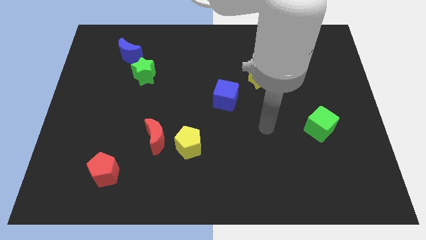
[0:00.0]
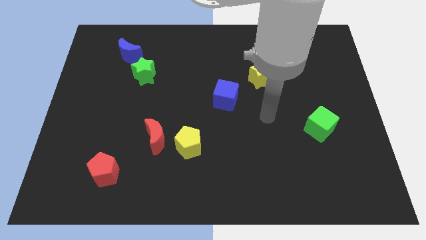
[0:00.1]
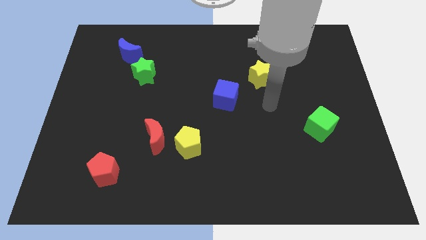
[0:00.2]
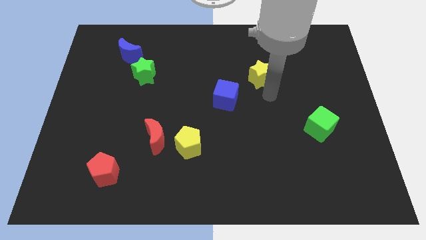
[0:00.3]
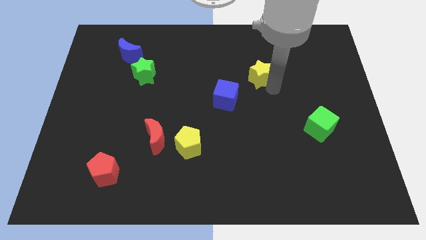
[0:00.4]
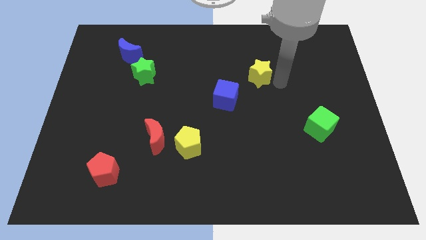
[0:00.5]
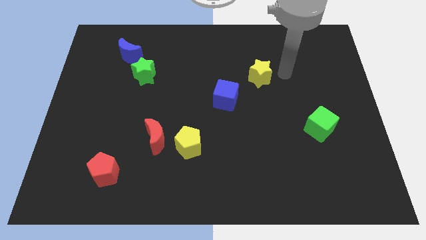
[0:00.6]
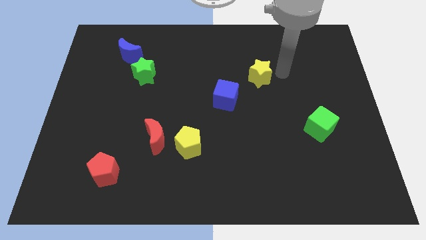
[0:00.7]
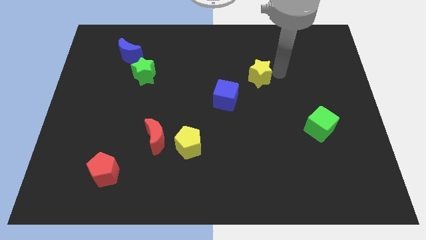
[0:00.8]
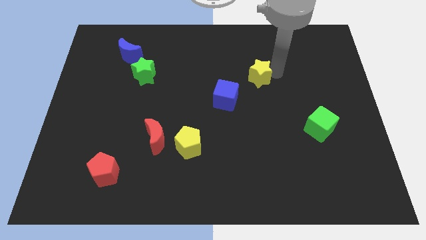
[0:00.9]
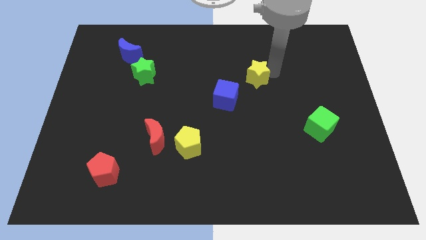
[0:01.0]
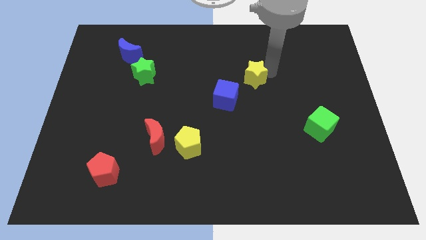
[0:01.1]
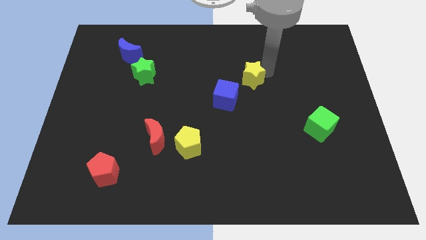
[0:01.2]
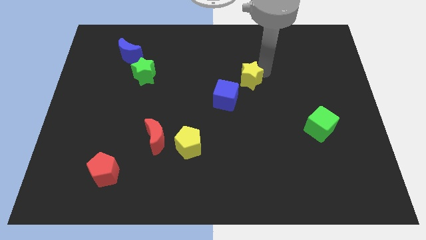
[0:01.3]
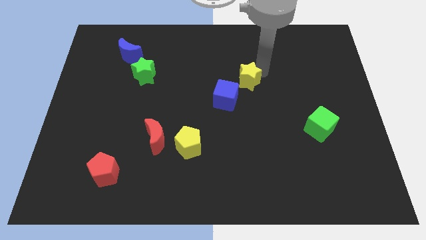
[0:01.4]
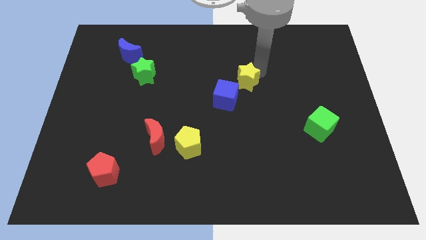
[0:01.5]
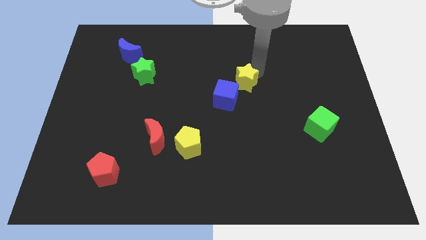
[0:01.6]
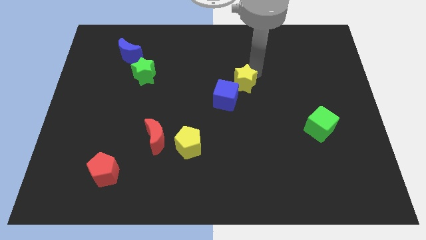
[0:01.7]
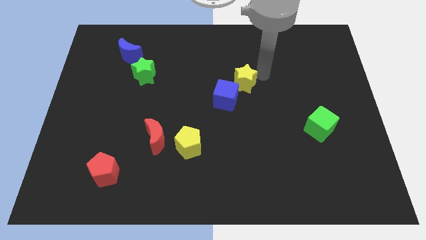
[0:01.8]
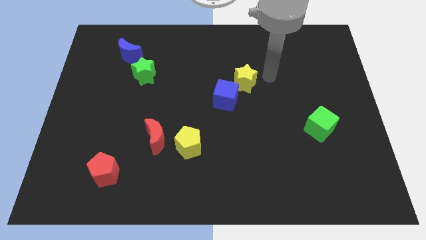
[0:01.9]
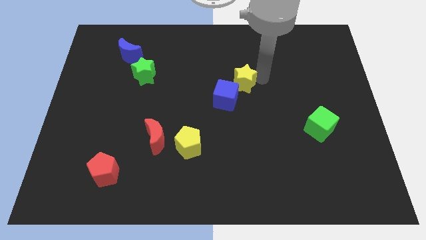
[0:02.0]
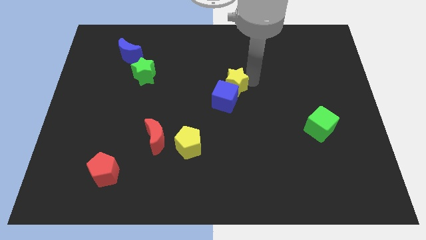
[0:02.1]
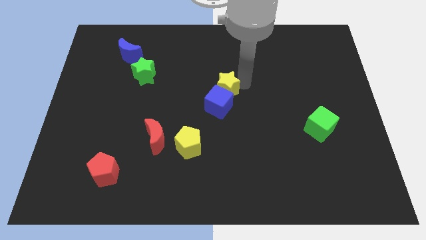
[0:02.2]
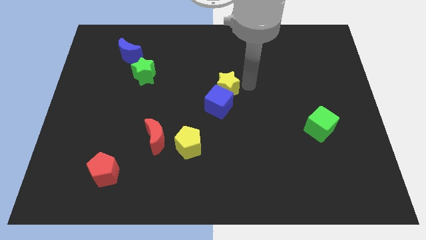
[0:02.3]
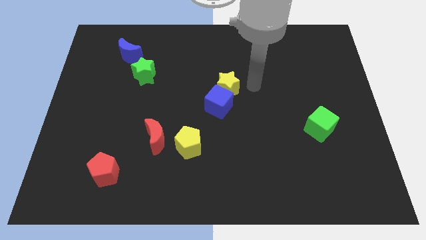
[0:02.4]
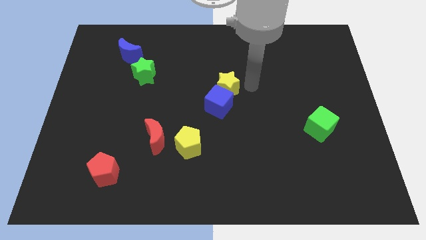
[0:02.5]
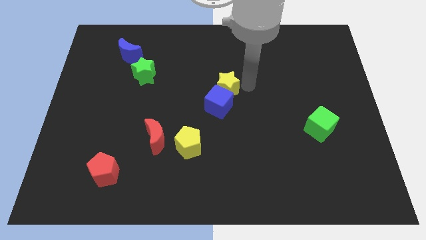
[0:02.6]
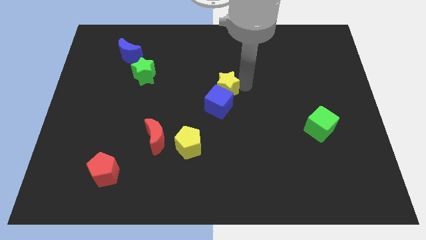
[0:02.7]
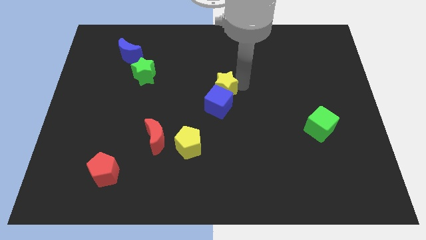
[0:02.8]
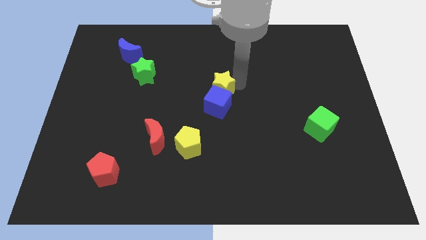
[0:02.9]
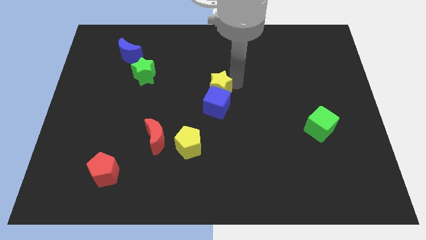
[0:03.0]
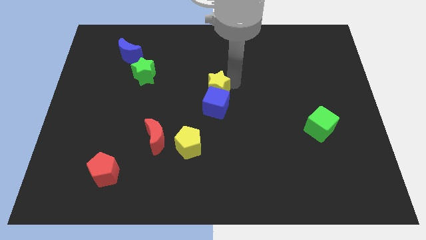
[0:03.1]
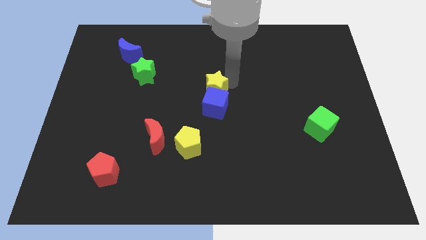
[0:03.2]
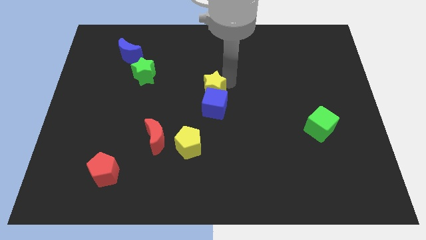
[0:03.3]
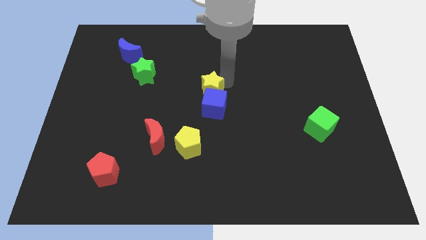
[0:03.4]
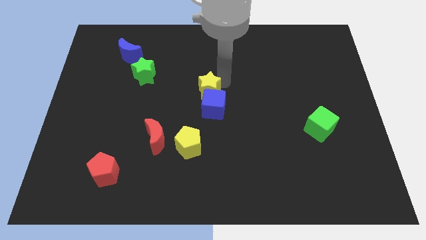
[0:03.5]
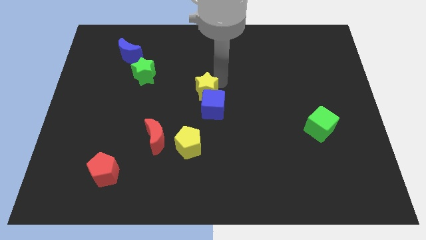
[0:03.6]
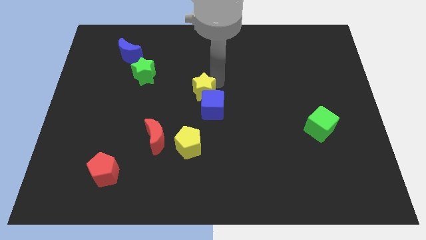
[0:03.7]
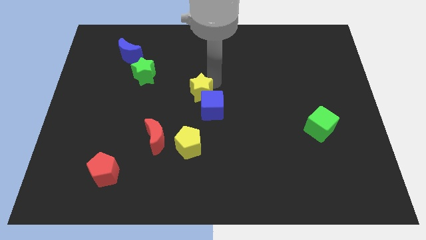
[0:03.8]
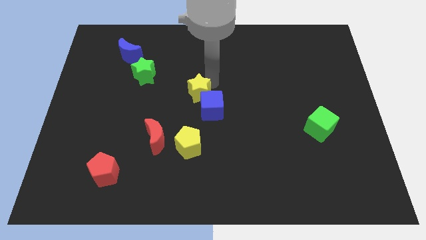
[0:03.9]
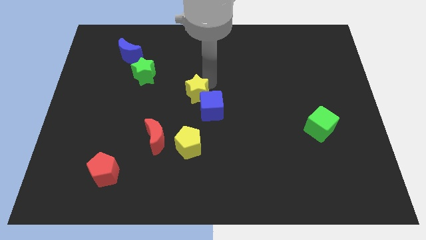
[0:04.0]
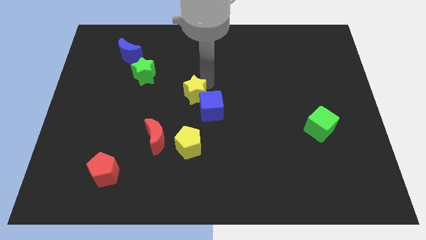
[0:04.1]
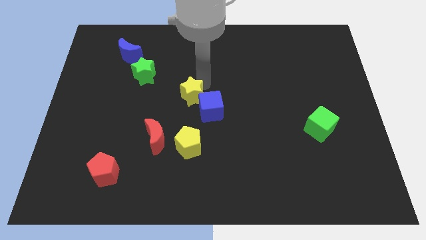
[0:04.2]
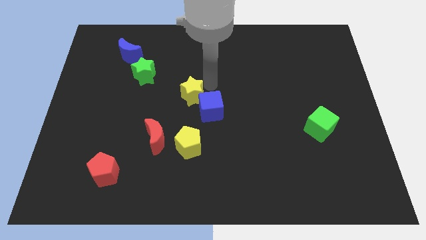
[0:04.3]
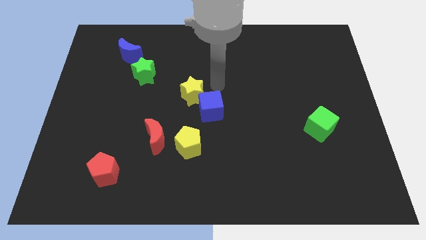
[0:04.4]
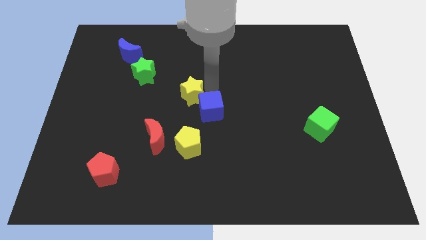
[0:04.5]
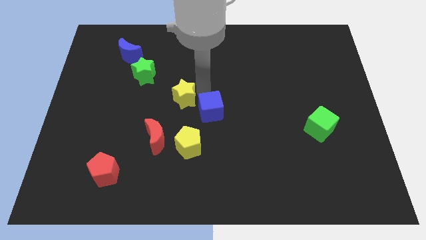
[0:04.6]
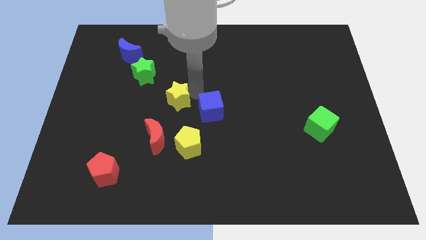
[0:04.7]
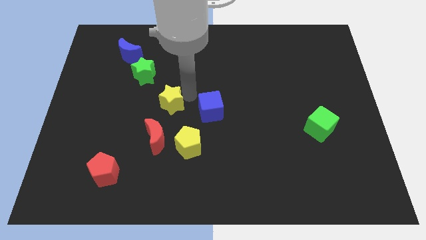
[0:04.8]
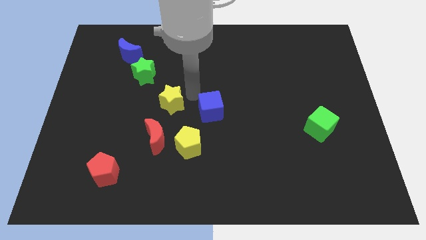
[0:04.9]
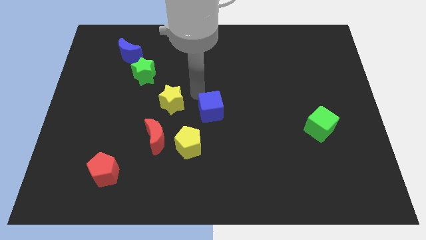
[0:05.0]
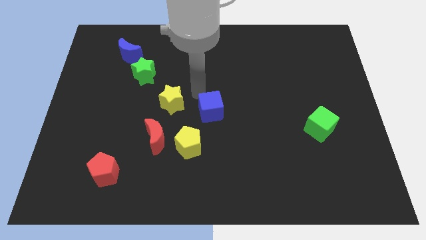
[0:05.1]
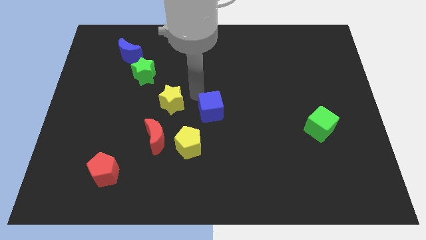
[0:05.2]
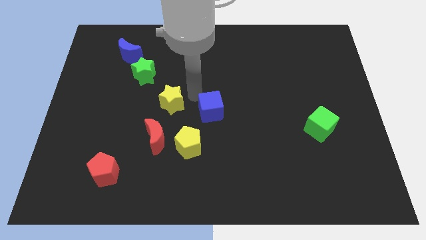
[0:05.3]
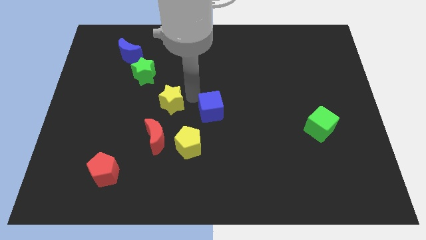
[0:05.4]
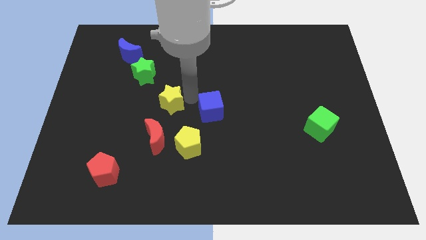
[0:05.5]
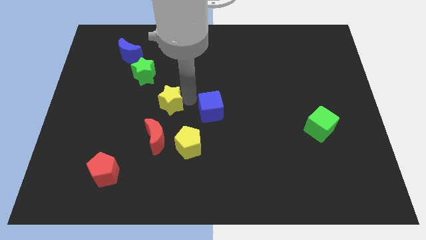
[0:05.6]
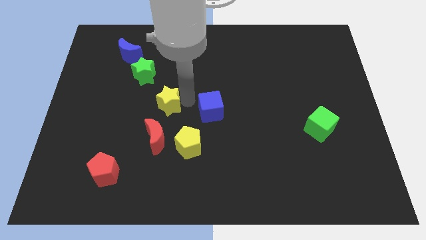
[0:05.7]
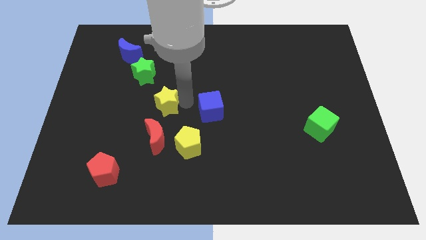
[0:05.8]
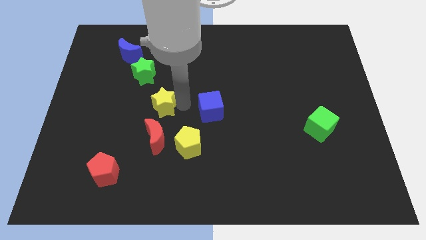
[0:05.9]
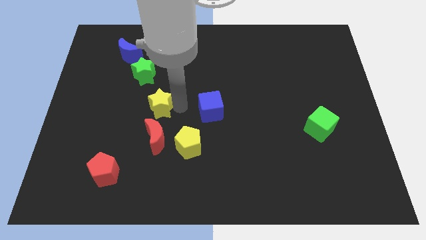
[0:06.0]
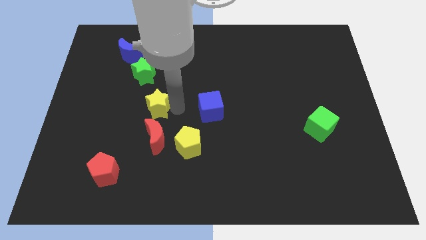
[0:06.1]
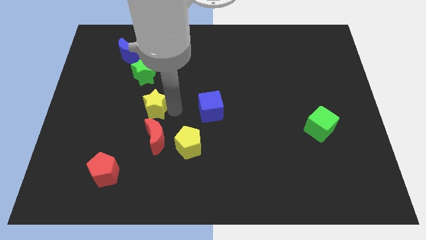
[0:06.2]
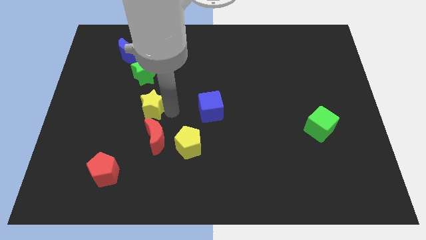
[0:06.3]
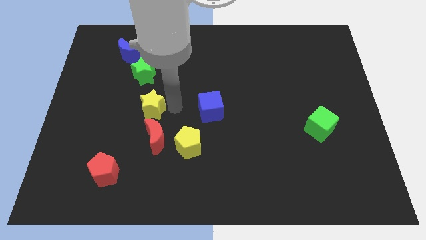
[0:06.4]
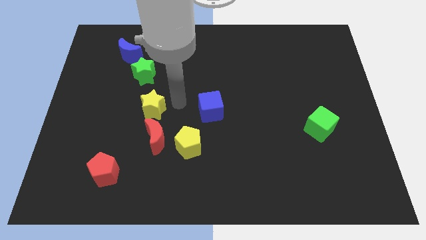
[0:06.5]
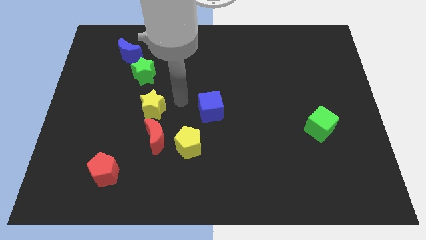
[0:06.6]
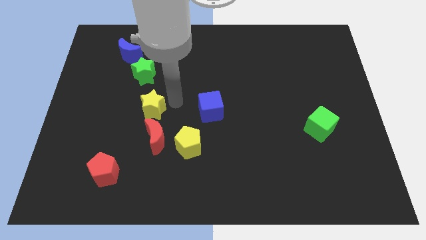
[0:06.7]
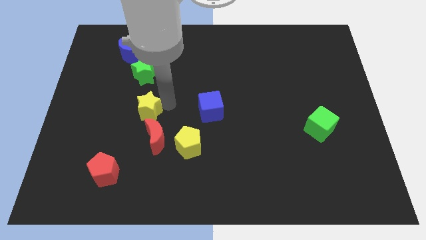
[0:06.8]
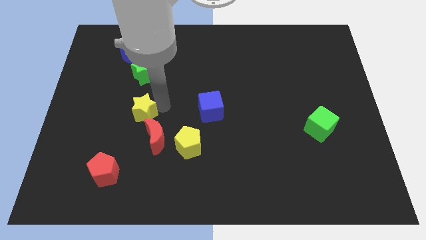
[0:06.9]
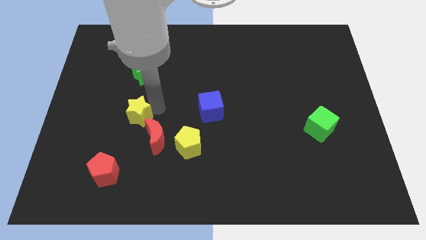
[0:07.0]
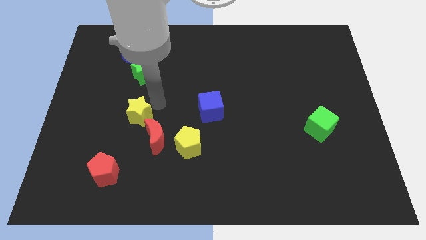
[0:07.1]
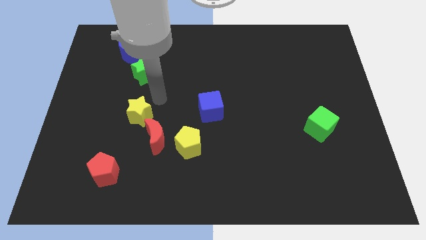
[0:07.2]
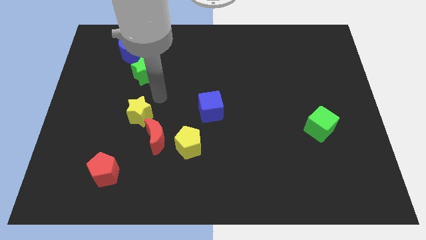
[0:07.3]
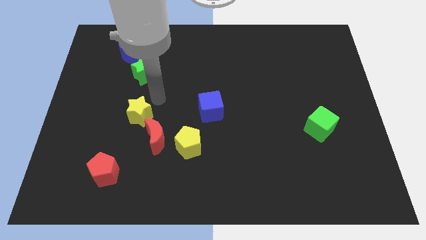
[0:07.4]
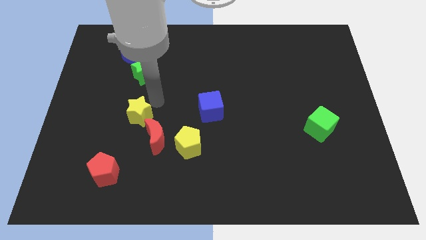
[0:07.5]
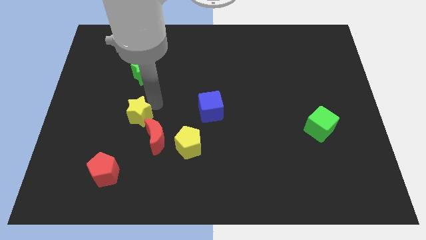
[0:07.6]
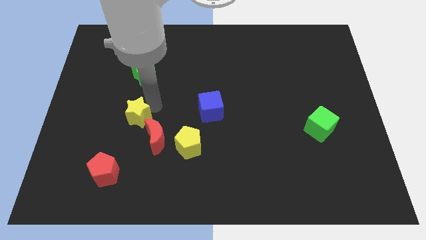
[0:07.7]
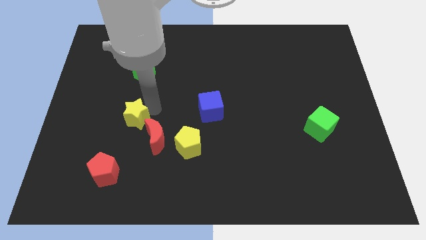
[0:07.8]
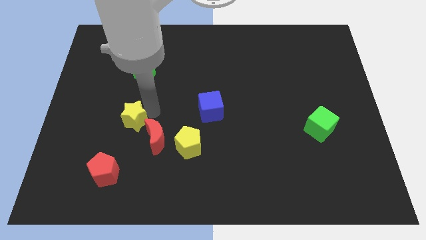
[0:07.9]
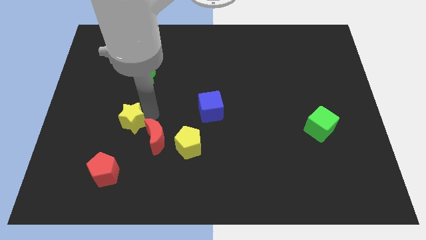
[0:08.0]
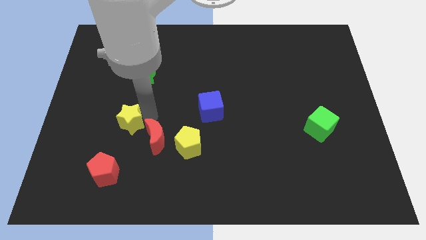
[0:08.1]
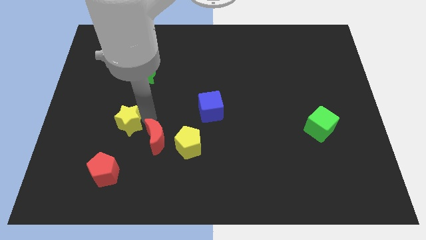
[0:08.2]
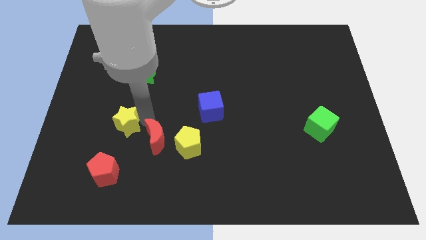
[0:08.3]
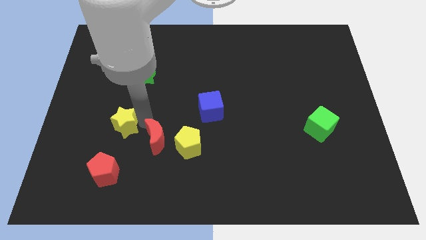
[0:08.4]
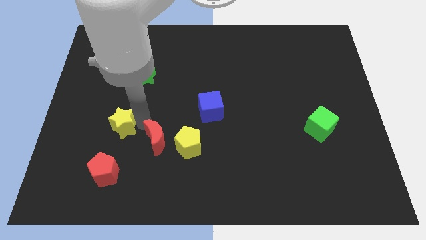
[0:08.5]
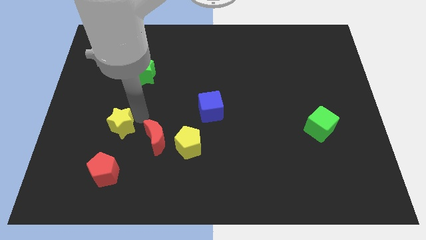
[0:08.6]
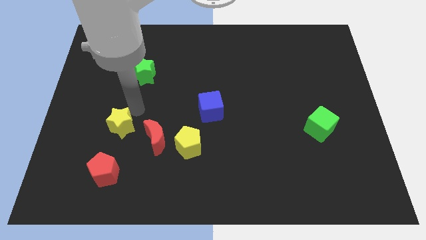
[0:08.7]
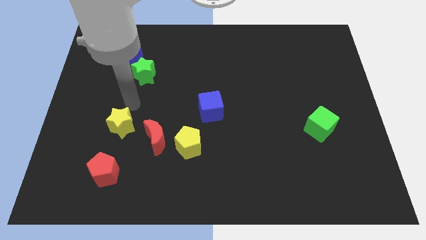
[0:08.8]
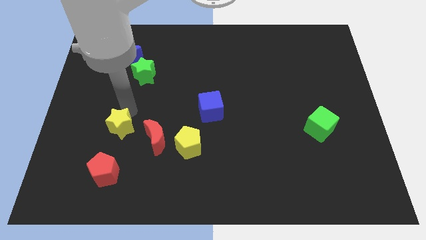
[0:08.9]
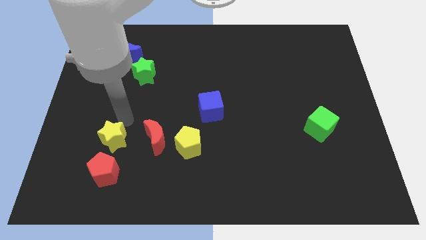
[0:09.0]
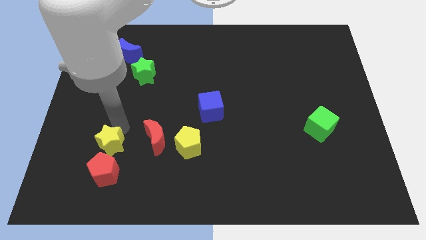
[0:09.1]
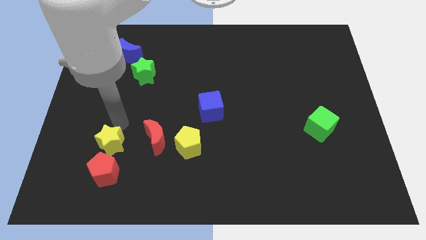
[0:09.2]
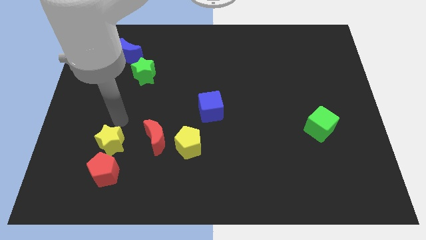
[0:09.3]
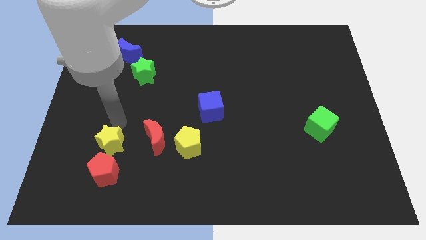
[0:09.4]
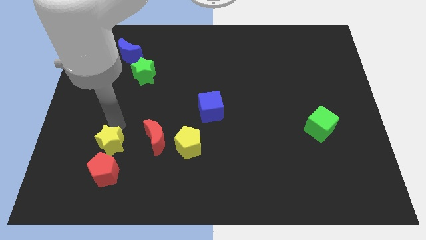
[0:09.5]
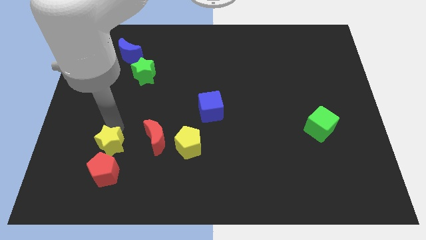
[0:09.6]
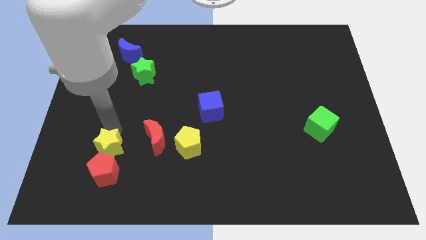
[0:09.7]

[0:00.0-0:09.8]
slide the yellow star towards the red pentagon
